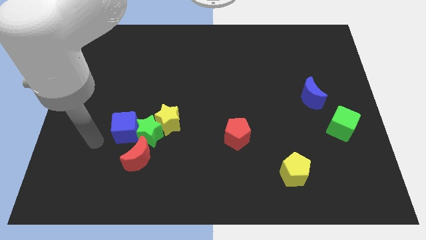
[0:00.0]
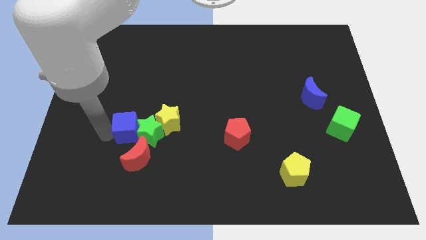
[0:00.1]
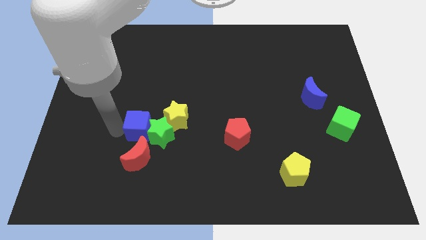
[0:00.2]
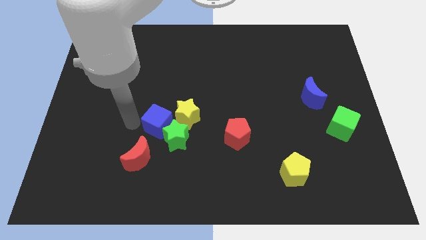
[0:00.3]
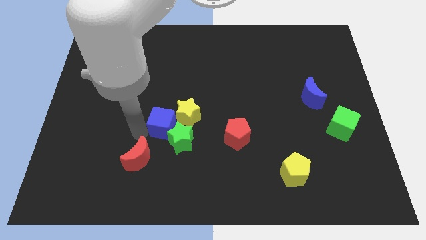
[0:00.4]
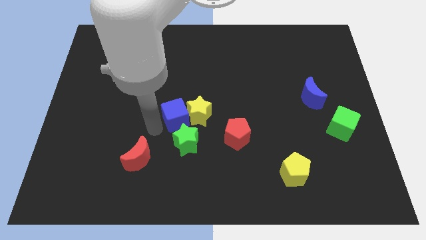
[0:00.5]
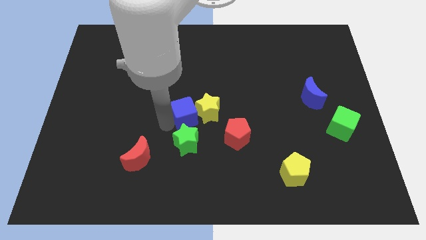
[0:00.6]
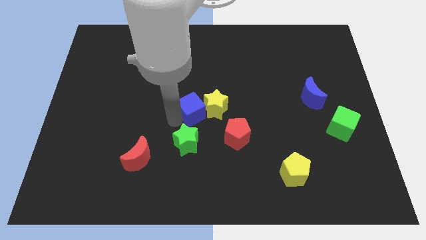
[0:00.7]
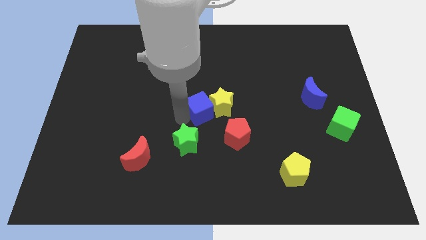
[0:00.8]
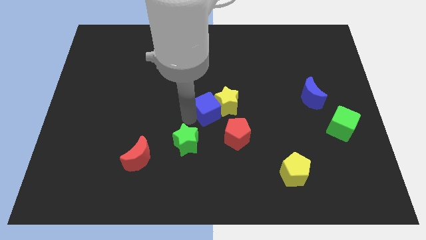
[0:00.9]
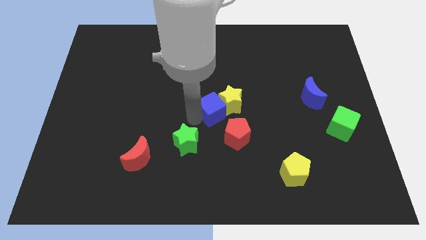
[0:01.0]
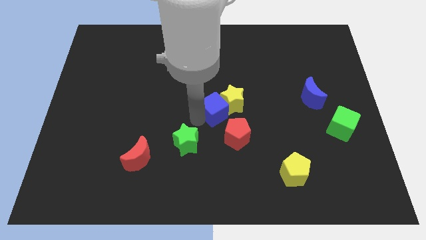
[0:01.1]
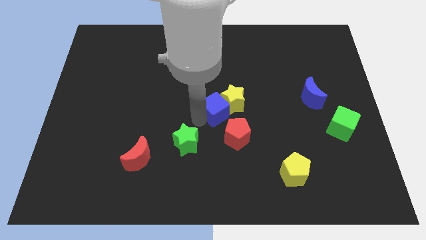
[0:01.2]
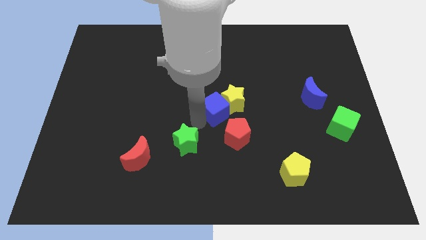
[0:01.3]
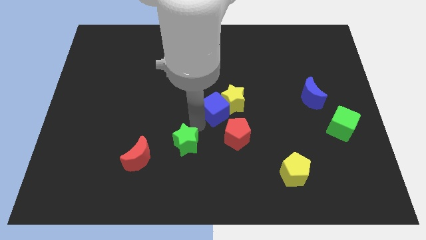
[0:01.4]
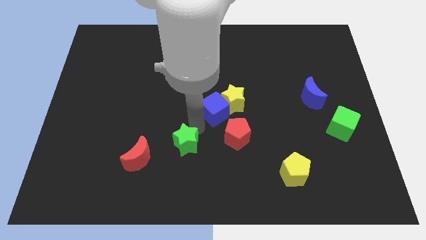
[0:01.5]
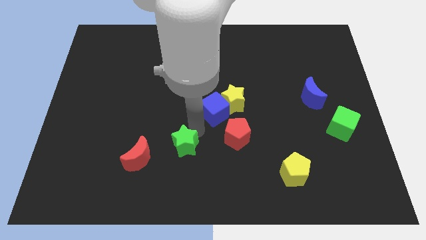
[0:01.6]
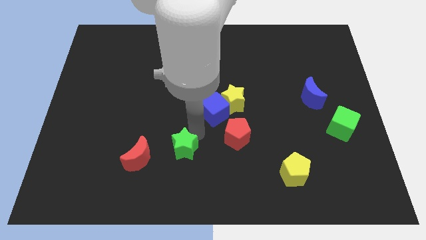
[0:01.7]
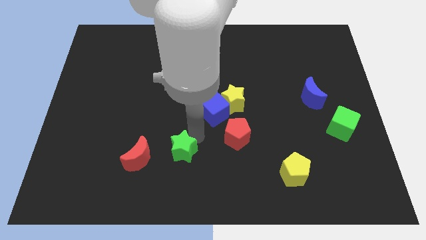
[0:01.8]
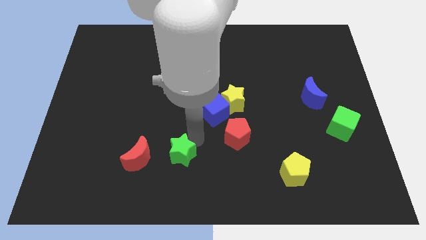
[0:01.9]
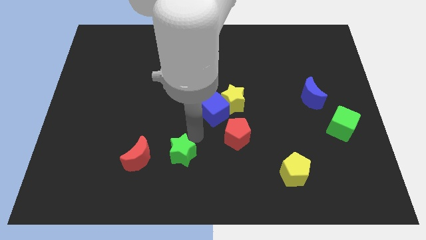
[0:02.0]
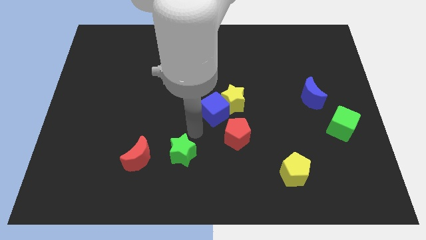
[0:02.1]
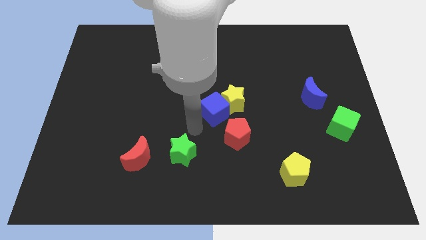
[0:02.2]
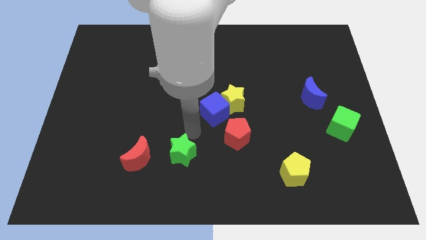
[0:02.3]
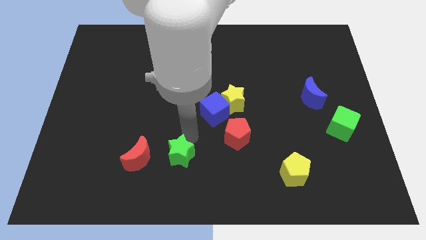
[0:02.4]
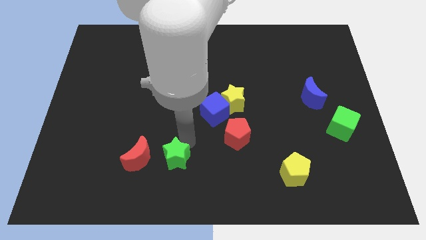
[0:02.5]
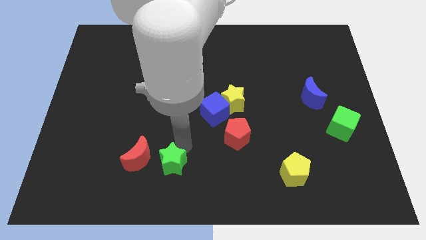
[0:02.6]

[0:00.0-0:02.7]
pull the green star apart from the group of blocks

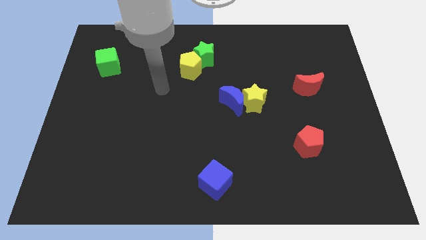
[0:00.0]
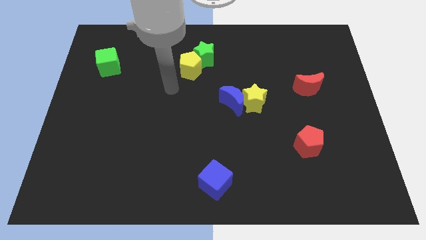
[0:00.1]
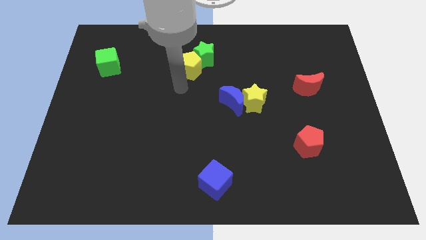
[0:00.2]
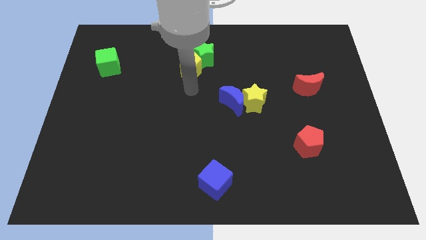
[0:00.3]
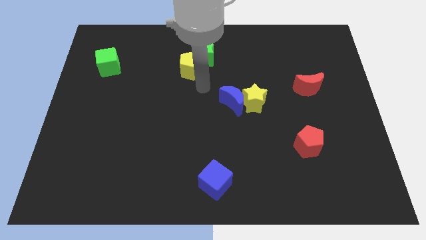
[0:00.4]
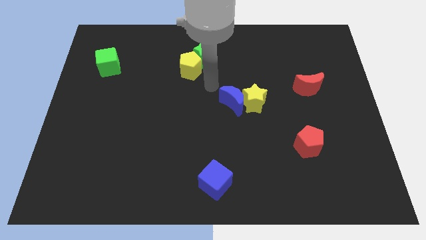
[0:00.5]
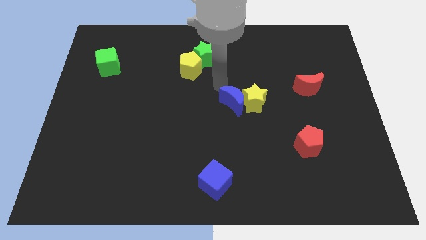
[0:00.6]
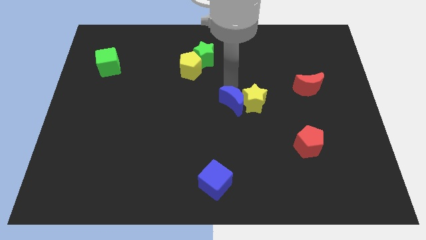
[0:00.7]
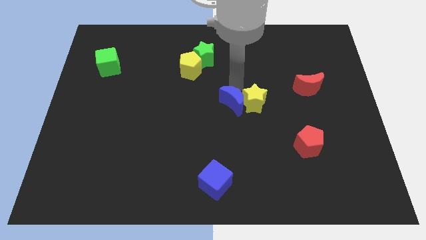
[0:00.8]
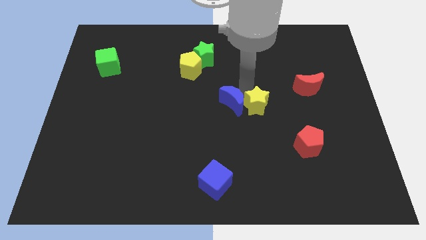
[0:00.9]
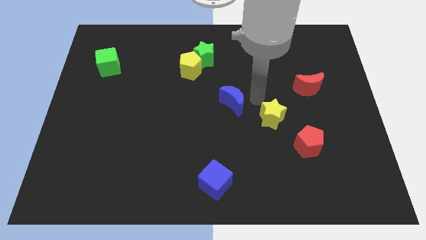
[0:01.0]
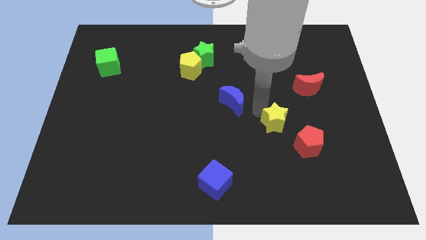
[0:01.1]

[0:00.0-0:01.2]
separate the blue moon from the yellow star

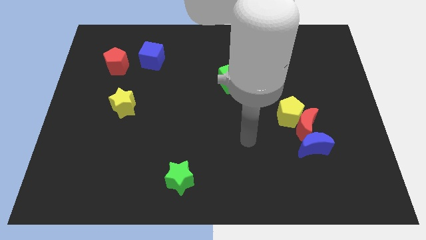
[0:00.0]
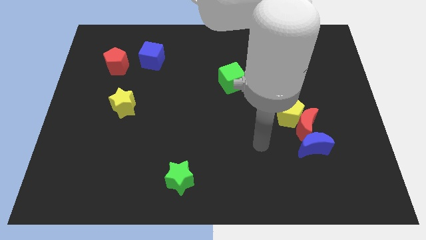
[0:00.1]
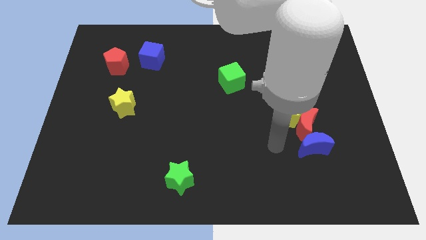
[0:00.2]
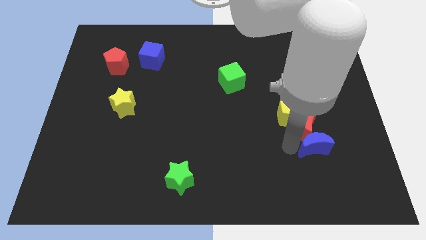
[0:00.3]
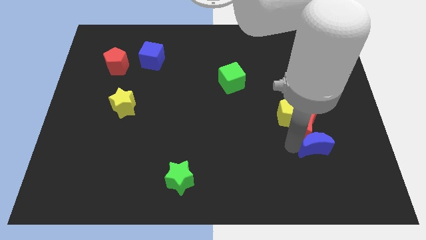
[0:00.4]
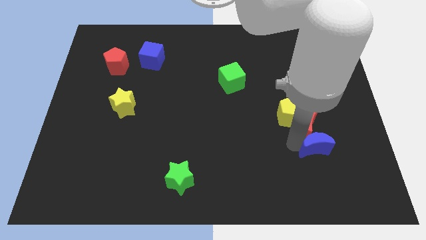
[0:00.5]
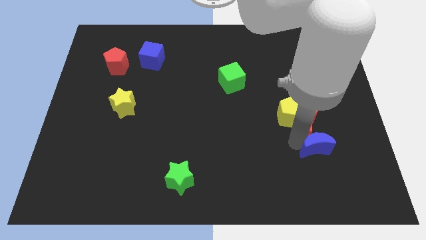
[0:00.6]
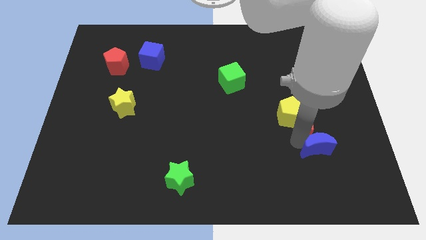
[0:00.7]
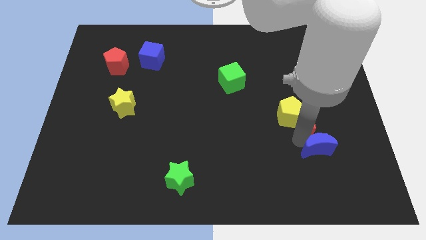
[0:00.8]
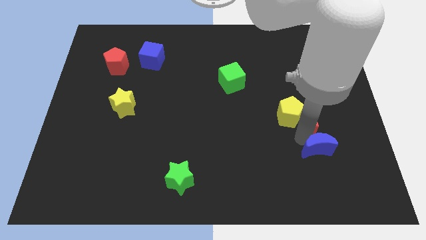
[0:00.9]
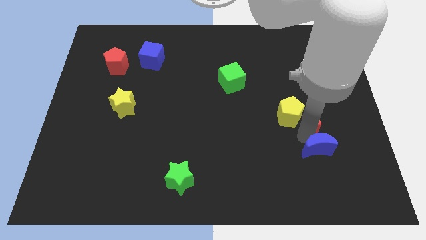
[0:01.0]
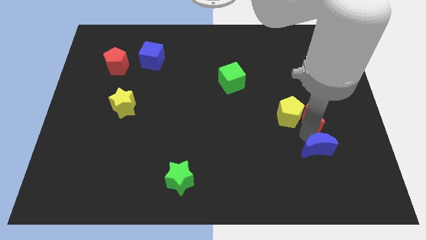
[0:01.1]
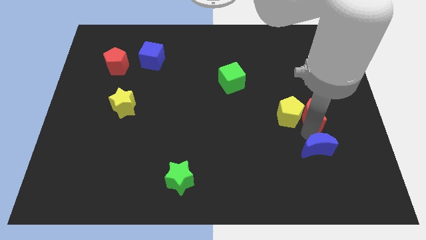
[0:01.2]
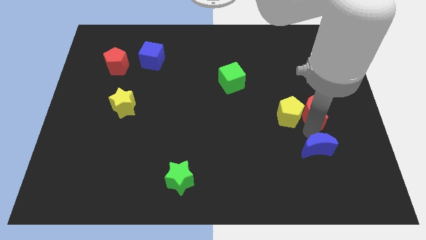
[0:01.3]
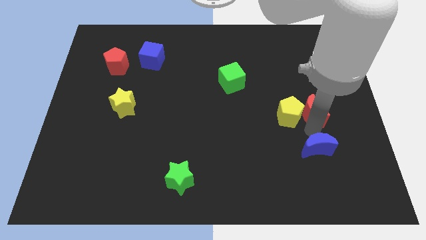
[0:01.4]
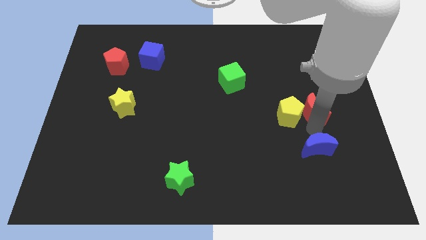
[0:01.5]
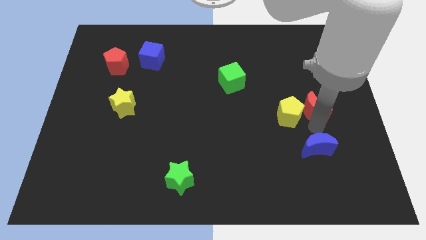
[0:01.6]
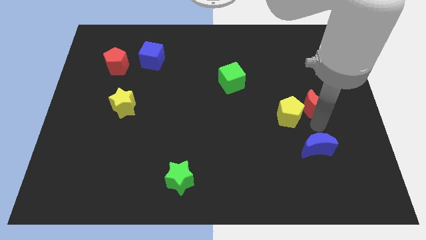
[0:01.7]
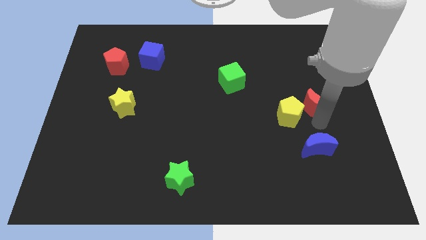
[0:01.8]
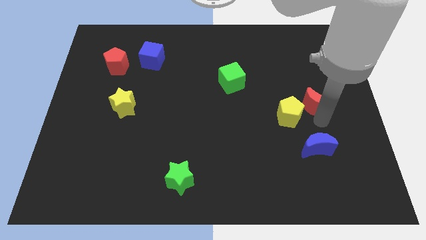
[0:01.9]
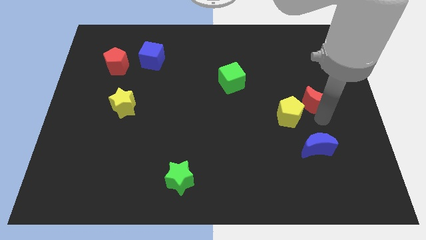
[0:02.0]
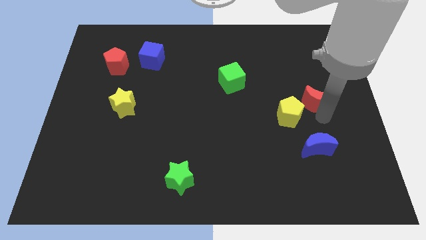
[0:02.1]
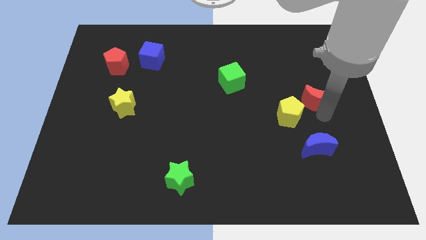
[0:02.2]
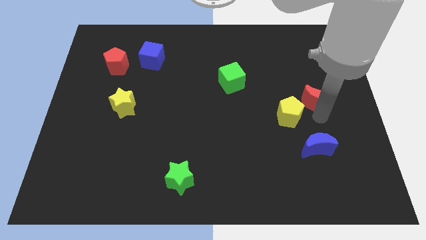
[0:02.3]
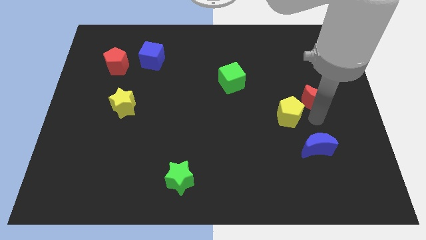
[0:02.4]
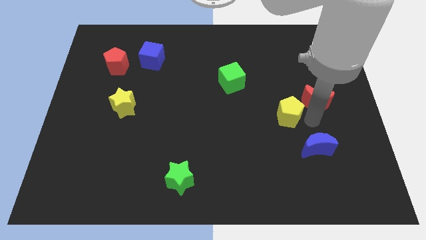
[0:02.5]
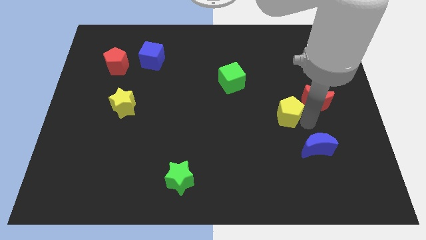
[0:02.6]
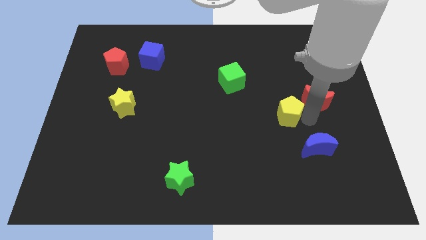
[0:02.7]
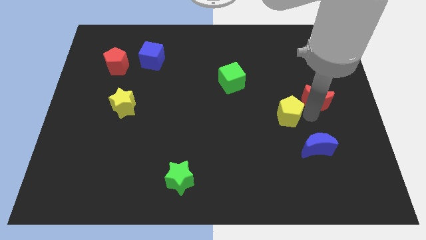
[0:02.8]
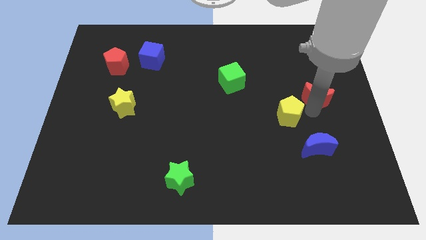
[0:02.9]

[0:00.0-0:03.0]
pull the red moon apart from the yellow pentagon and blue moon

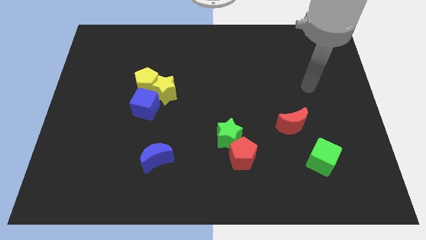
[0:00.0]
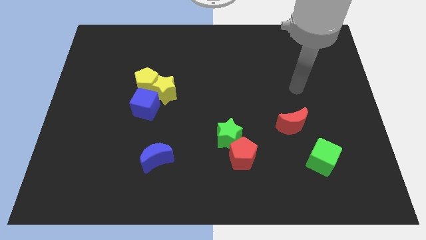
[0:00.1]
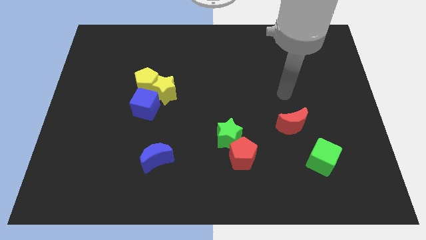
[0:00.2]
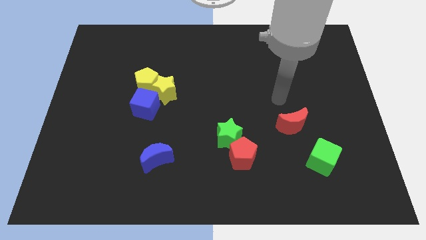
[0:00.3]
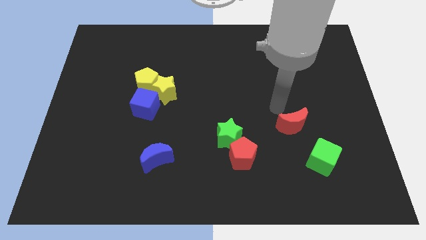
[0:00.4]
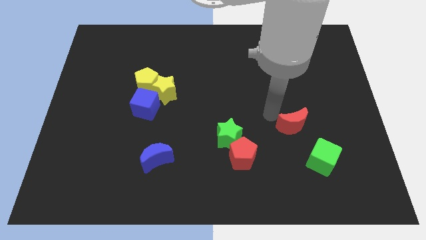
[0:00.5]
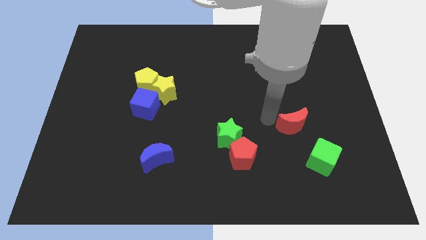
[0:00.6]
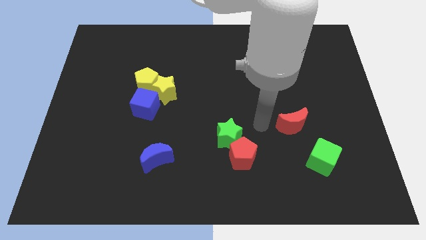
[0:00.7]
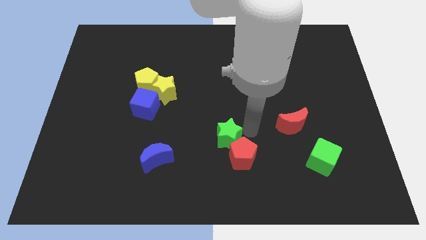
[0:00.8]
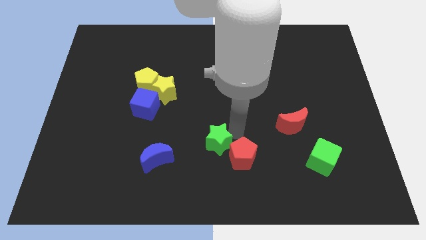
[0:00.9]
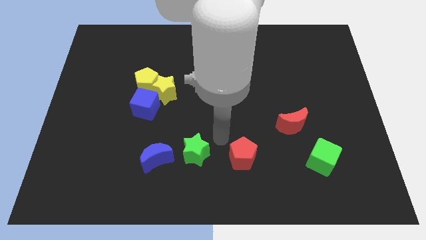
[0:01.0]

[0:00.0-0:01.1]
pull the red pentagon apart from the green star

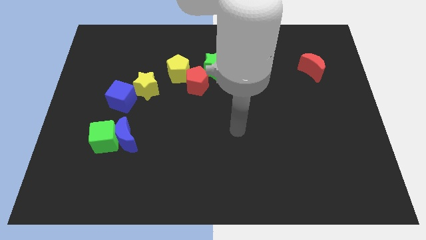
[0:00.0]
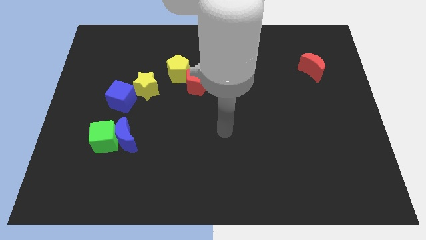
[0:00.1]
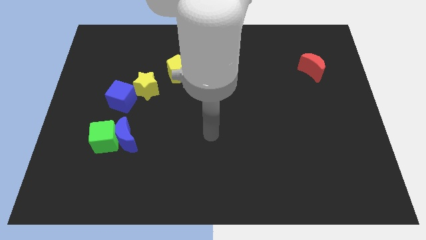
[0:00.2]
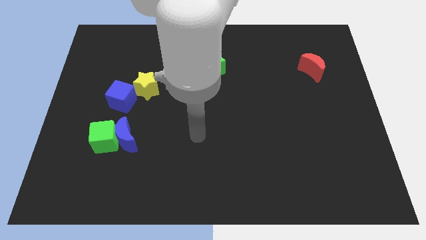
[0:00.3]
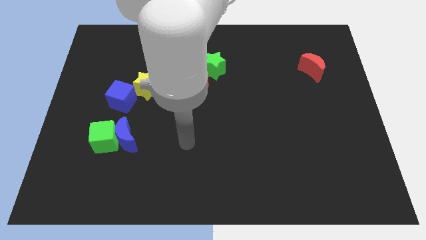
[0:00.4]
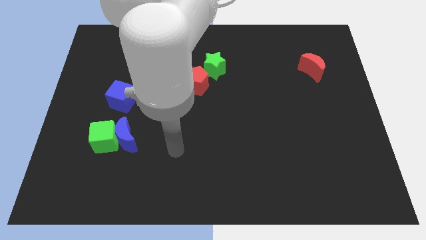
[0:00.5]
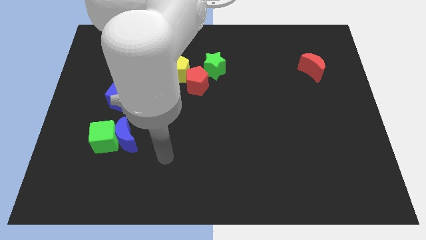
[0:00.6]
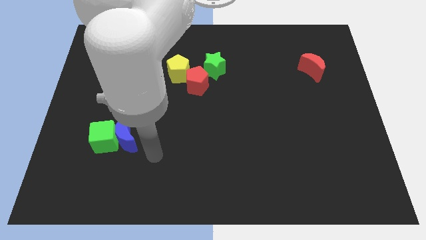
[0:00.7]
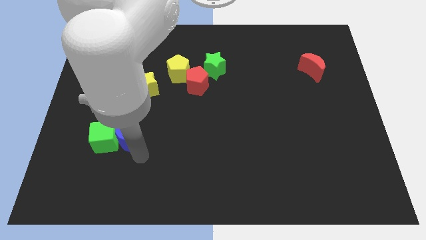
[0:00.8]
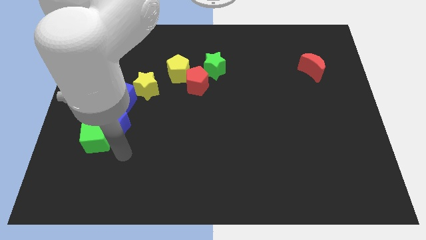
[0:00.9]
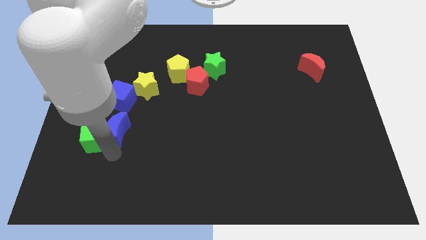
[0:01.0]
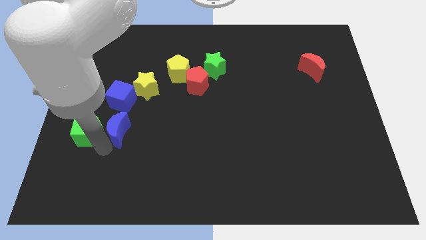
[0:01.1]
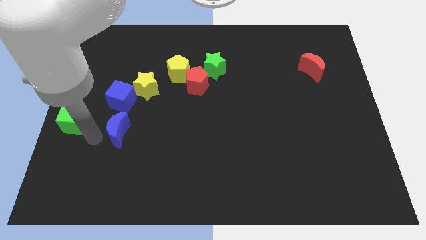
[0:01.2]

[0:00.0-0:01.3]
pull the blue moon apart from the green cube
